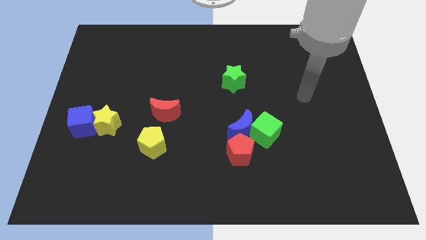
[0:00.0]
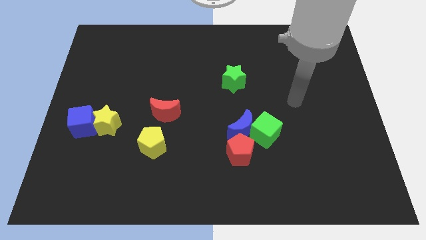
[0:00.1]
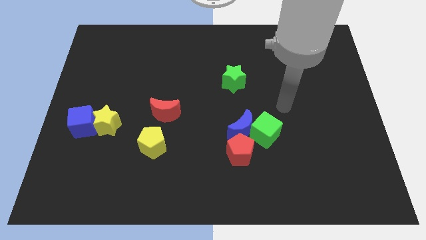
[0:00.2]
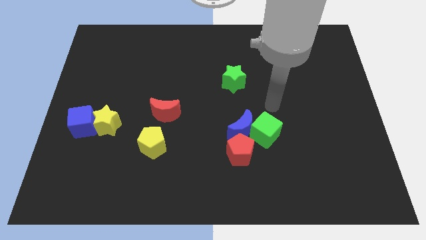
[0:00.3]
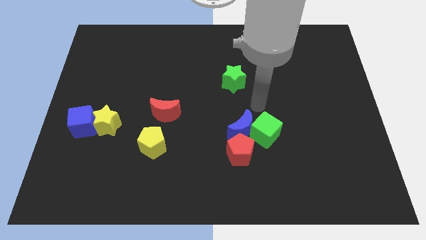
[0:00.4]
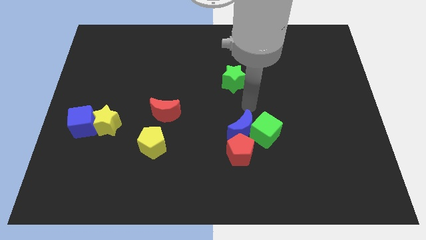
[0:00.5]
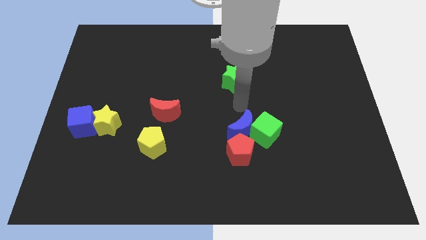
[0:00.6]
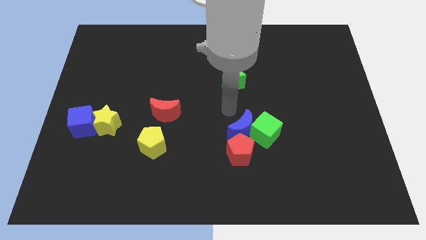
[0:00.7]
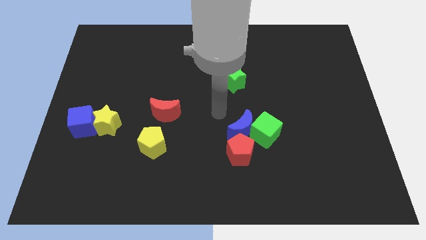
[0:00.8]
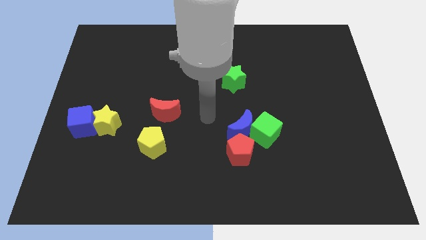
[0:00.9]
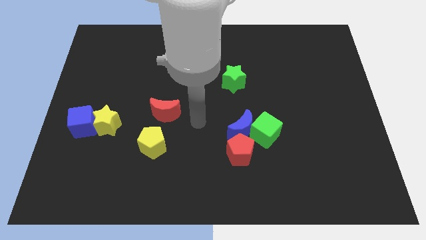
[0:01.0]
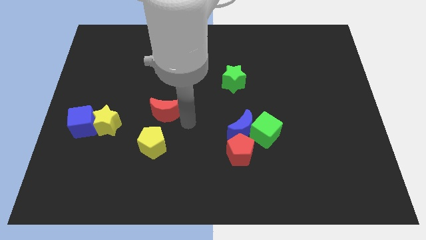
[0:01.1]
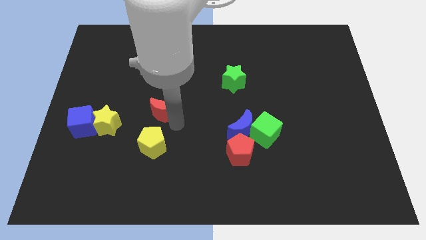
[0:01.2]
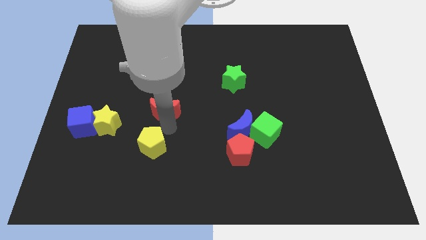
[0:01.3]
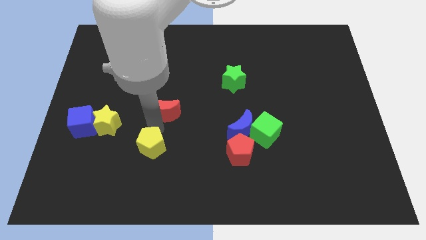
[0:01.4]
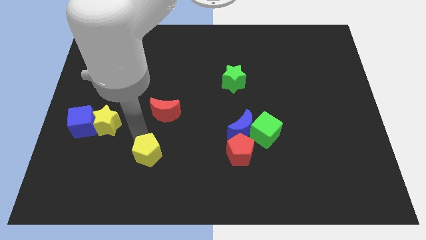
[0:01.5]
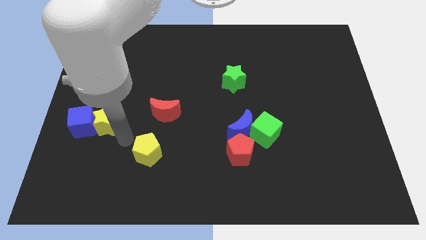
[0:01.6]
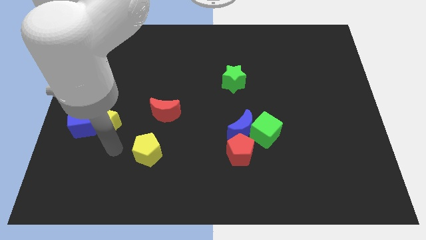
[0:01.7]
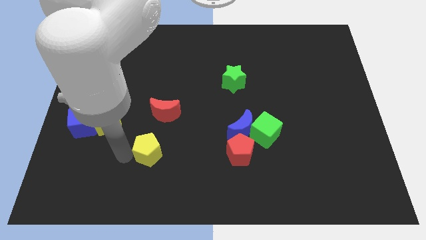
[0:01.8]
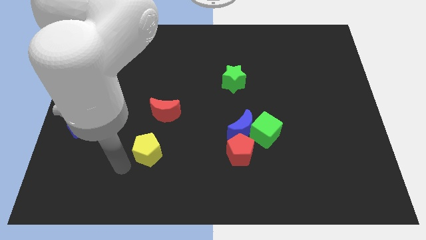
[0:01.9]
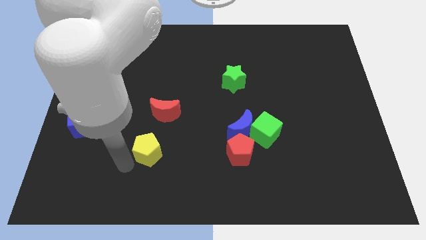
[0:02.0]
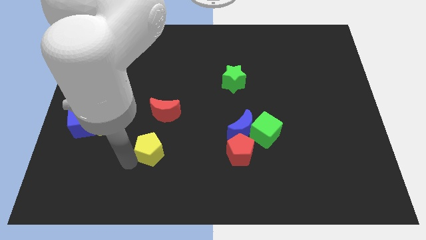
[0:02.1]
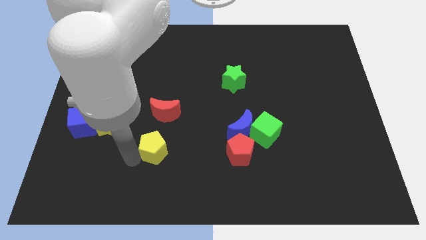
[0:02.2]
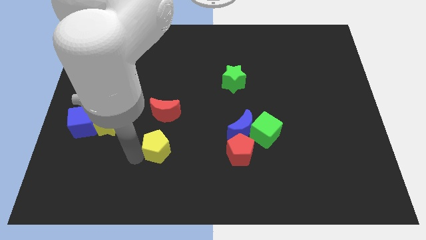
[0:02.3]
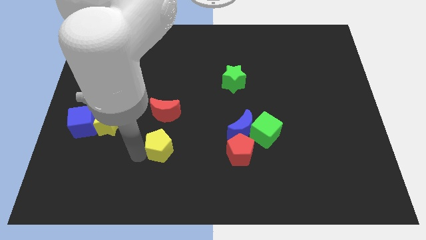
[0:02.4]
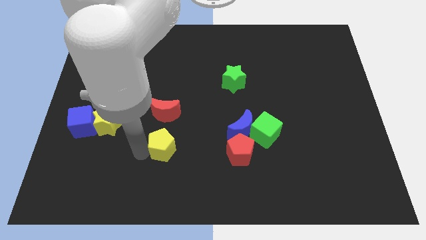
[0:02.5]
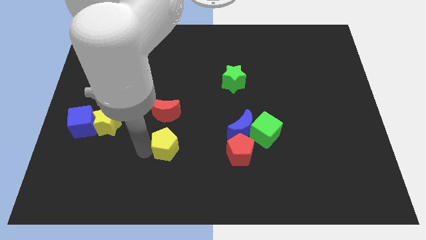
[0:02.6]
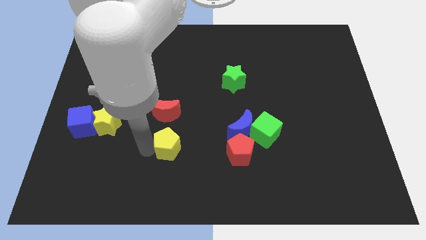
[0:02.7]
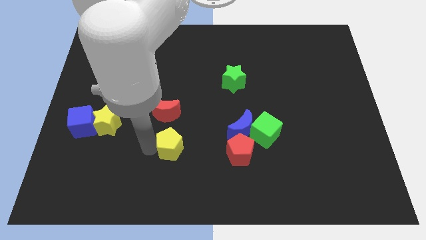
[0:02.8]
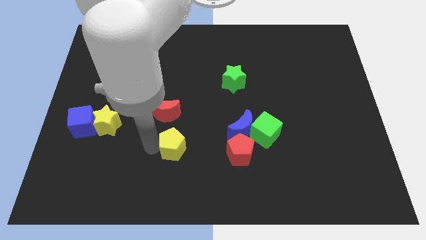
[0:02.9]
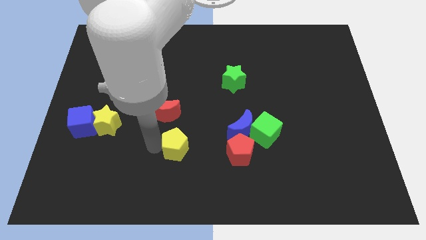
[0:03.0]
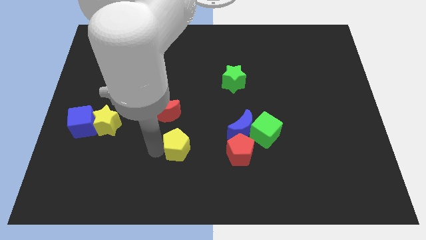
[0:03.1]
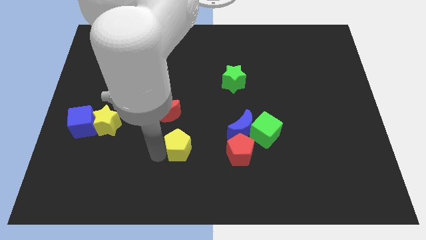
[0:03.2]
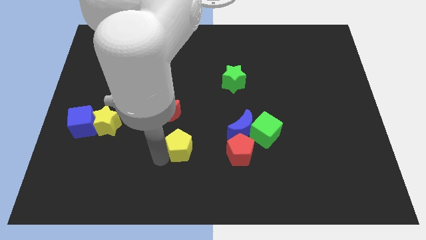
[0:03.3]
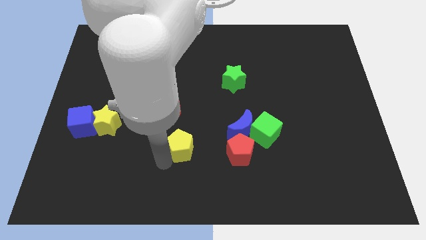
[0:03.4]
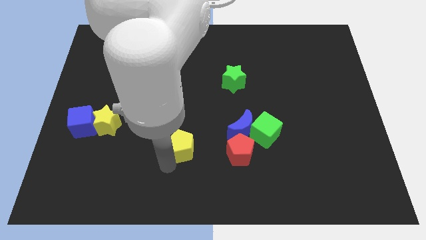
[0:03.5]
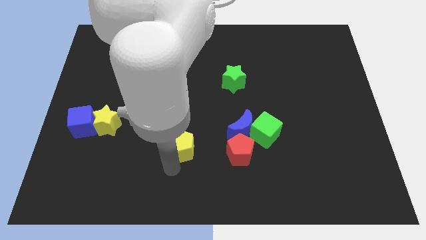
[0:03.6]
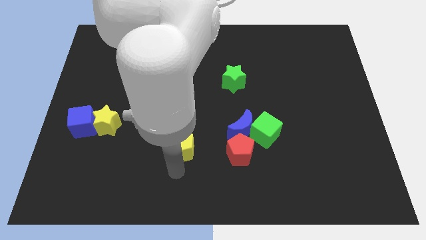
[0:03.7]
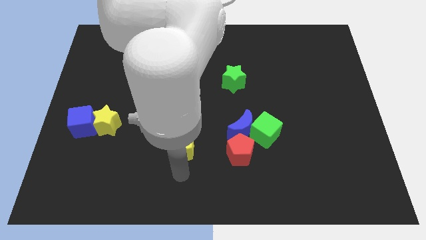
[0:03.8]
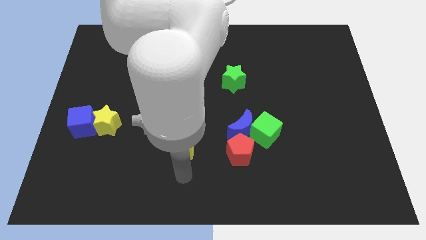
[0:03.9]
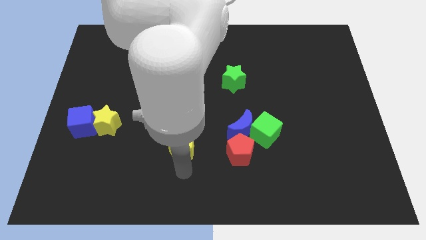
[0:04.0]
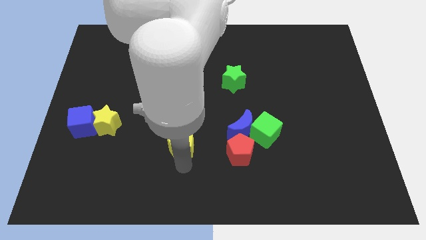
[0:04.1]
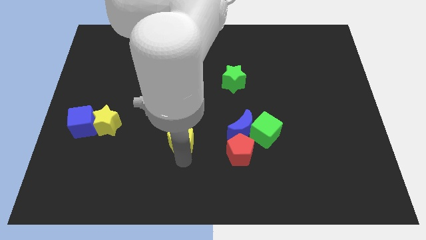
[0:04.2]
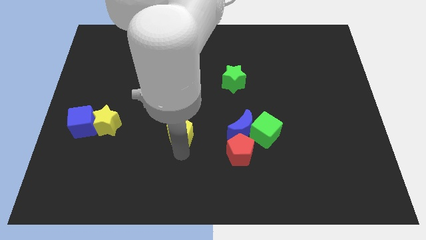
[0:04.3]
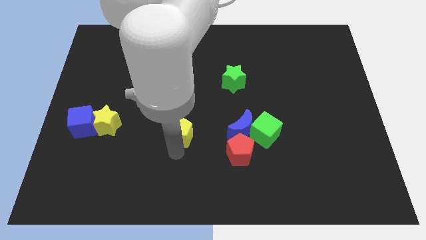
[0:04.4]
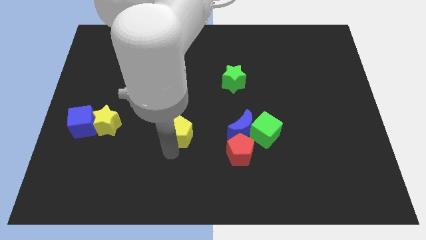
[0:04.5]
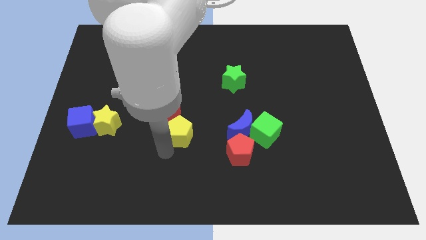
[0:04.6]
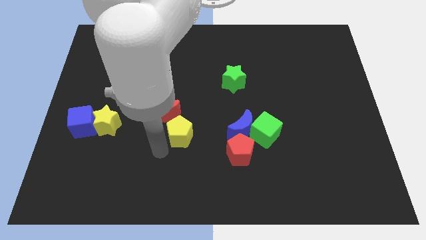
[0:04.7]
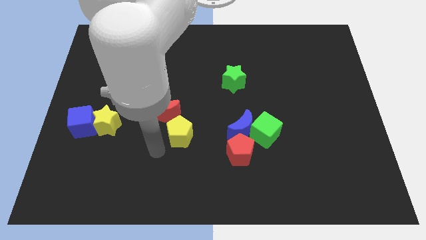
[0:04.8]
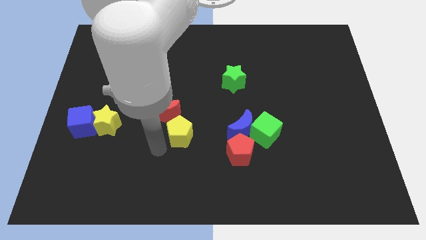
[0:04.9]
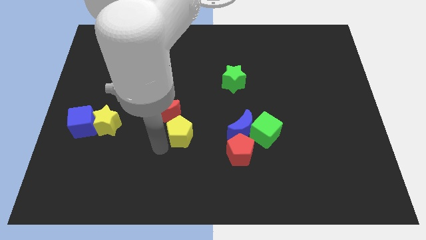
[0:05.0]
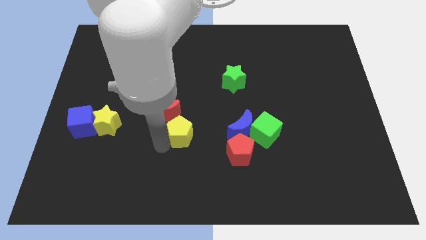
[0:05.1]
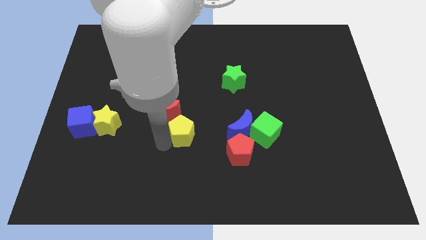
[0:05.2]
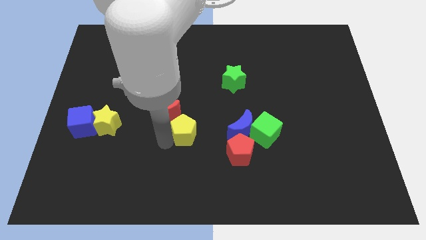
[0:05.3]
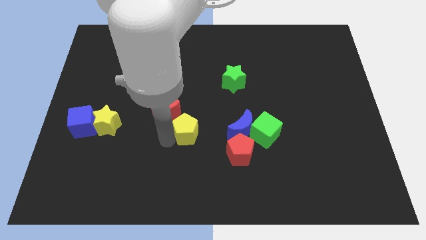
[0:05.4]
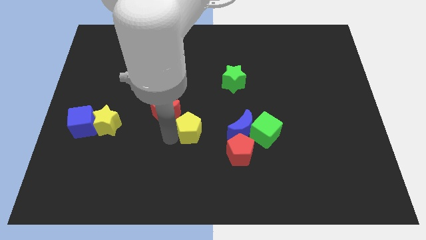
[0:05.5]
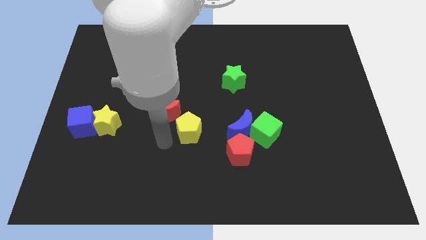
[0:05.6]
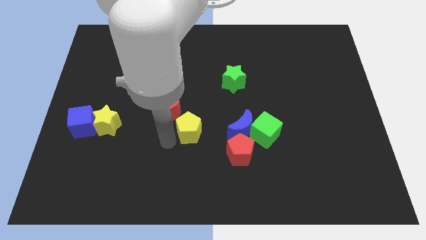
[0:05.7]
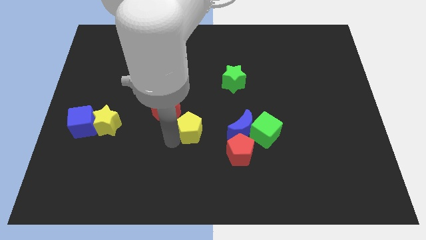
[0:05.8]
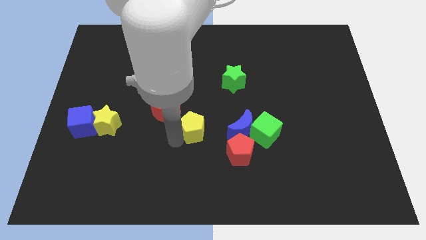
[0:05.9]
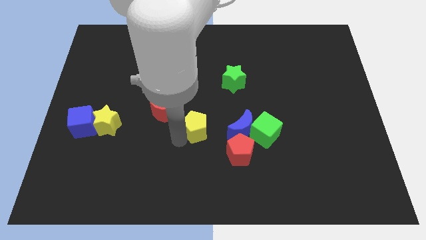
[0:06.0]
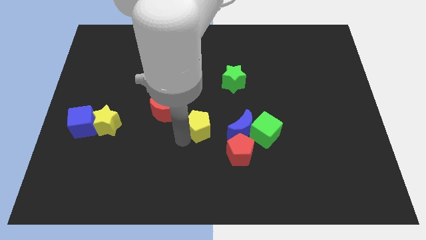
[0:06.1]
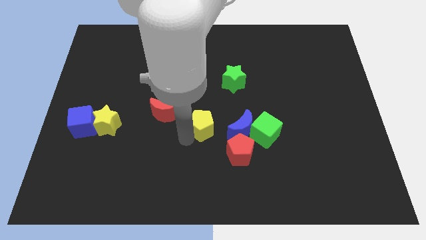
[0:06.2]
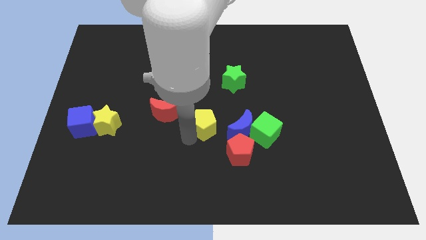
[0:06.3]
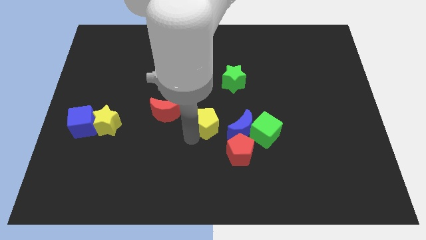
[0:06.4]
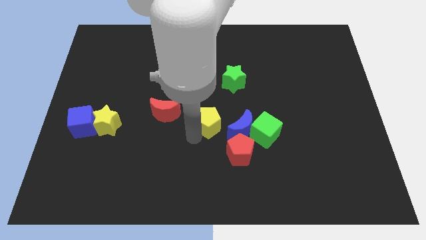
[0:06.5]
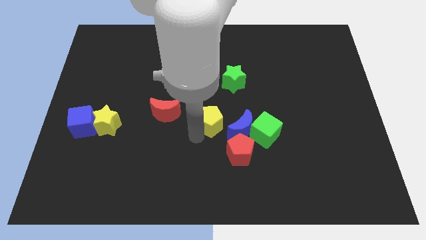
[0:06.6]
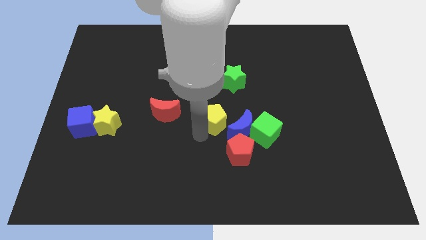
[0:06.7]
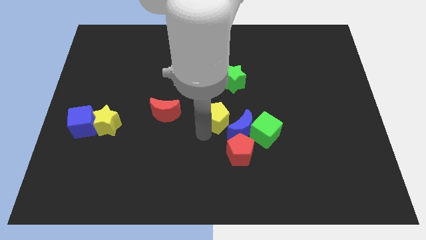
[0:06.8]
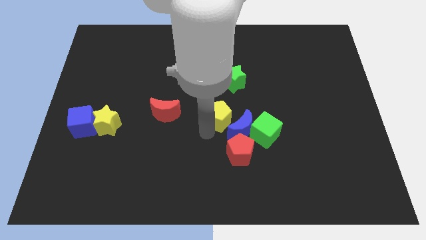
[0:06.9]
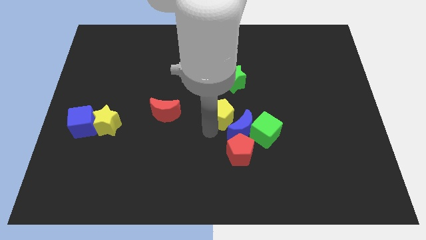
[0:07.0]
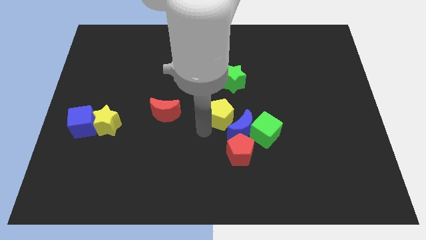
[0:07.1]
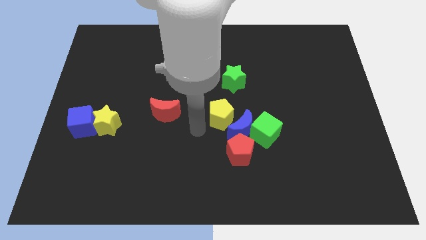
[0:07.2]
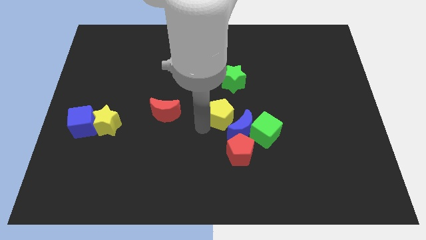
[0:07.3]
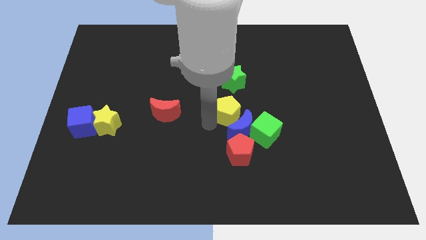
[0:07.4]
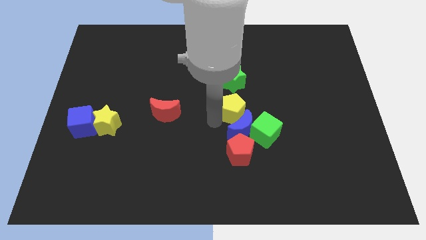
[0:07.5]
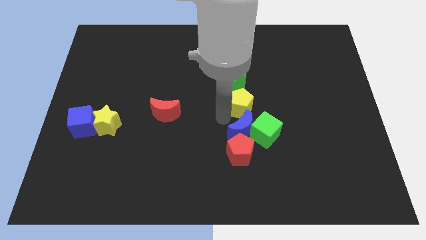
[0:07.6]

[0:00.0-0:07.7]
move the yellow pentagon up and right diagonally

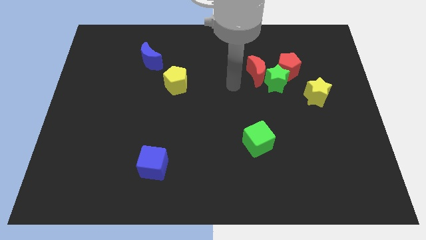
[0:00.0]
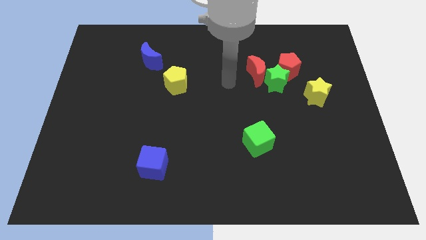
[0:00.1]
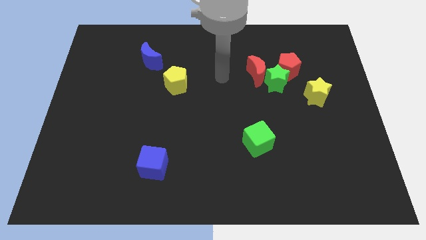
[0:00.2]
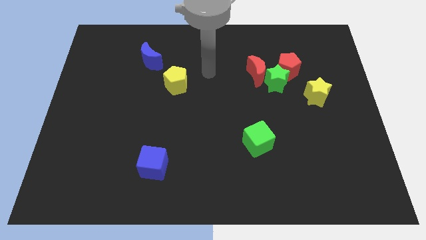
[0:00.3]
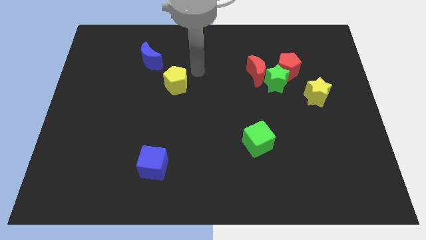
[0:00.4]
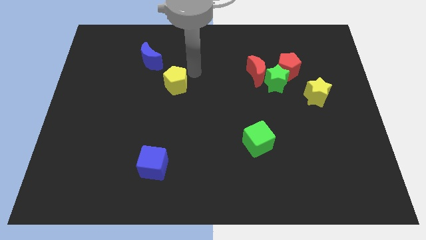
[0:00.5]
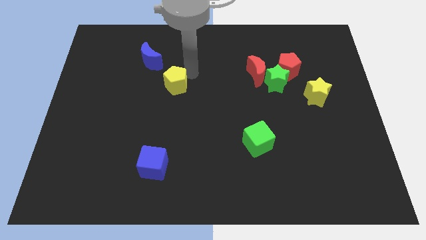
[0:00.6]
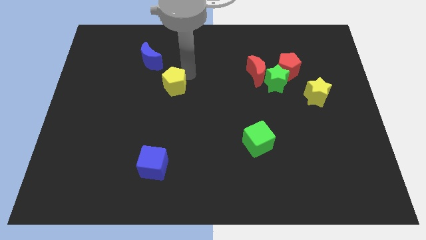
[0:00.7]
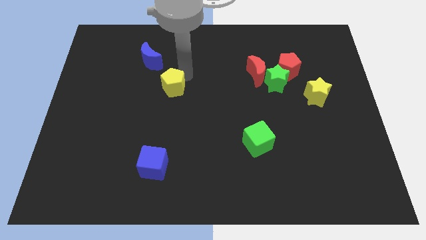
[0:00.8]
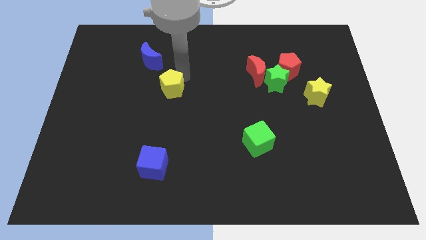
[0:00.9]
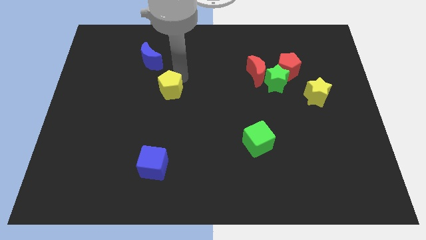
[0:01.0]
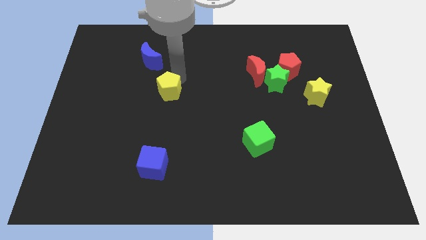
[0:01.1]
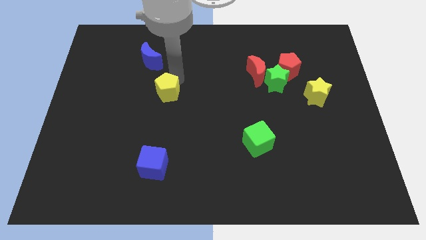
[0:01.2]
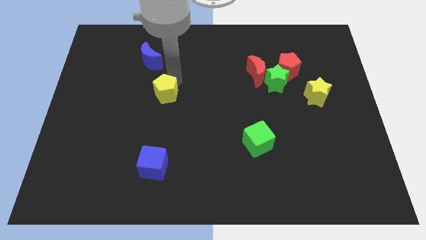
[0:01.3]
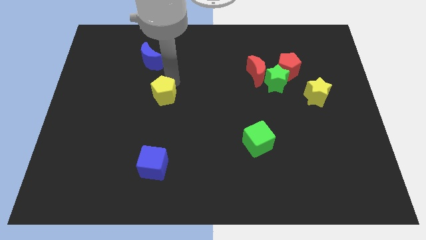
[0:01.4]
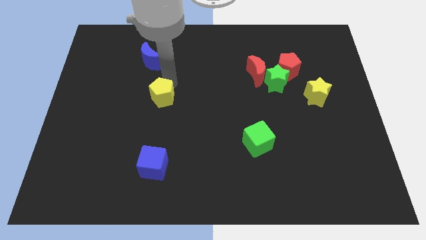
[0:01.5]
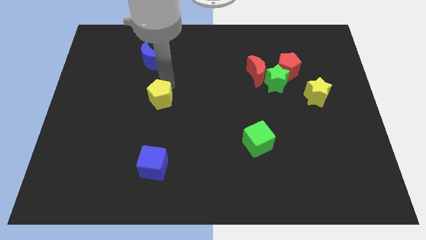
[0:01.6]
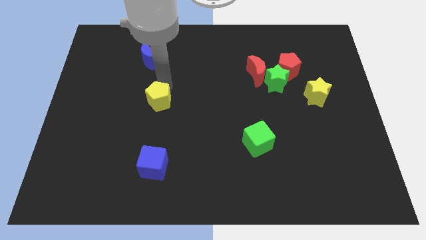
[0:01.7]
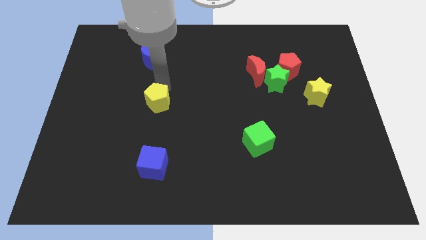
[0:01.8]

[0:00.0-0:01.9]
move the yellow pentagon a bit downwards and then left
